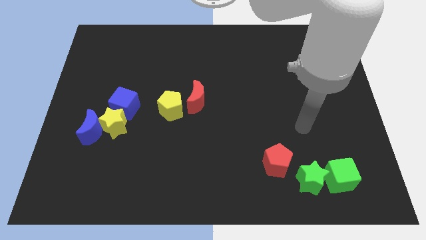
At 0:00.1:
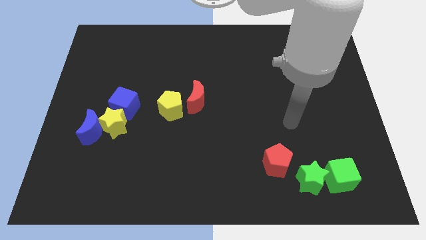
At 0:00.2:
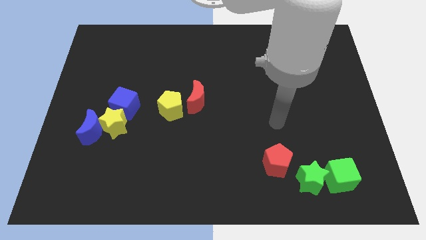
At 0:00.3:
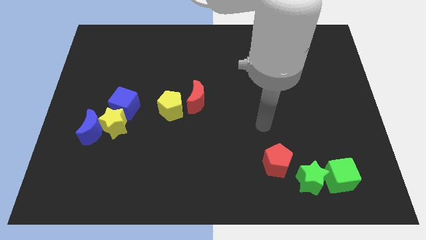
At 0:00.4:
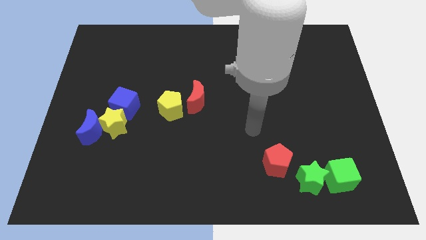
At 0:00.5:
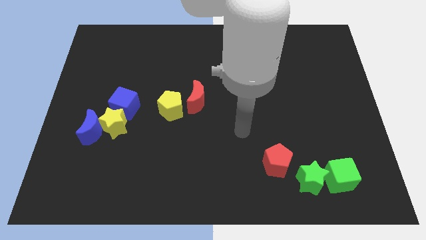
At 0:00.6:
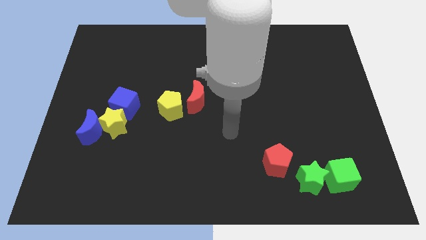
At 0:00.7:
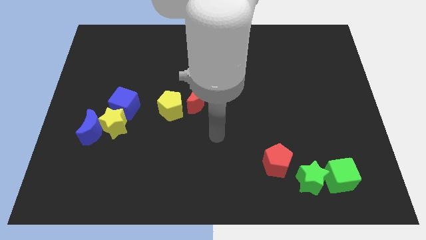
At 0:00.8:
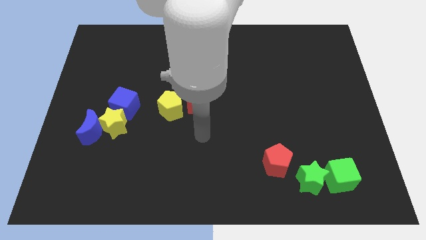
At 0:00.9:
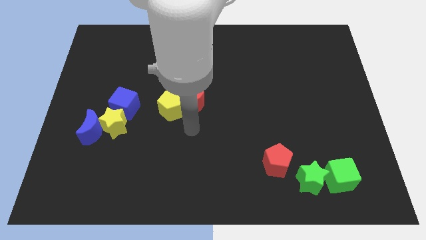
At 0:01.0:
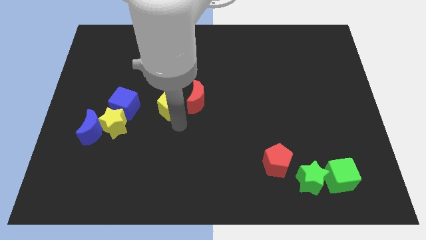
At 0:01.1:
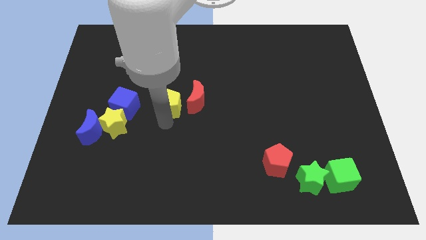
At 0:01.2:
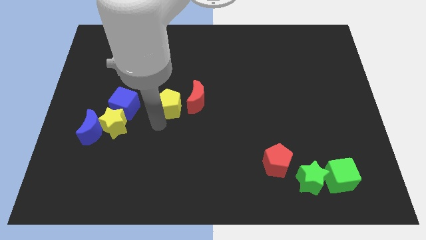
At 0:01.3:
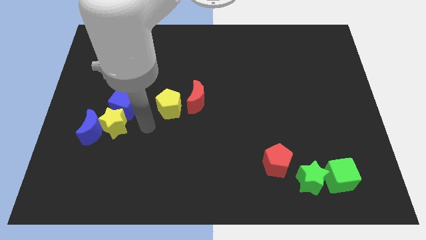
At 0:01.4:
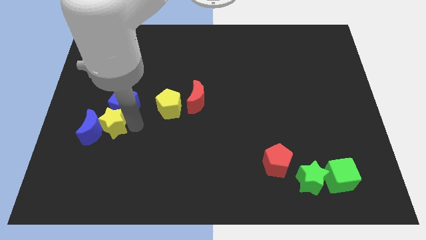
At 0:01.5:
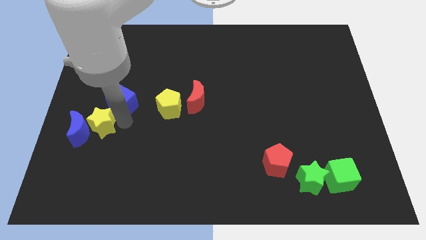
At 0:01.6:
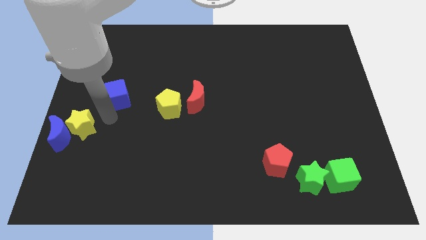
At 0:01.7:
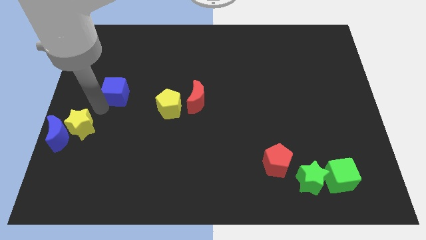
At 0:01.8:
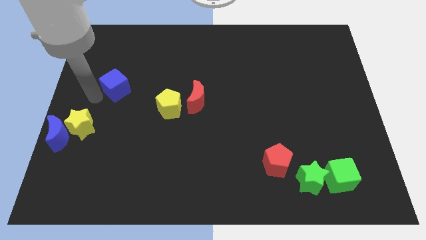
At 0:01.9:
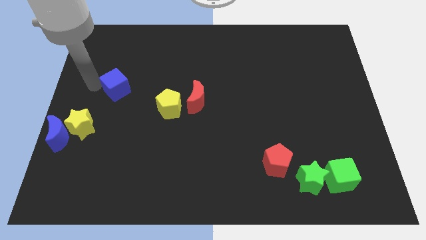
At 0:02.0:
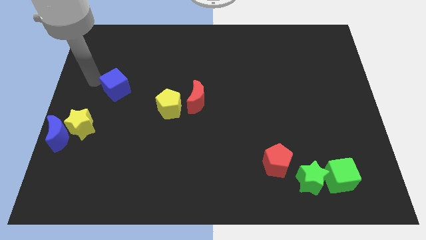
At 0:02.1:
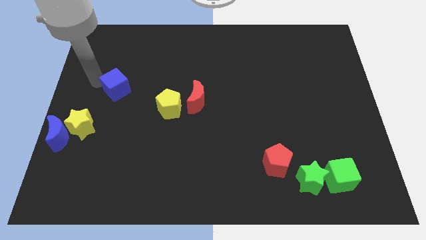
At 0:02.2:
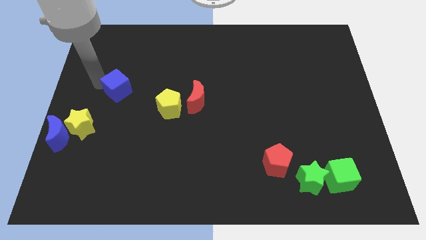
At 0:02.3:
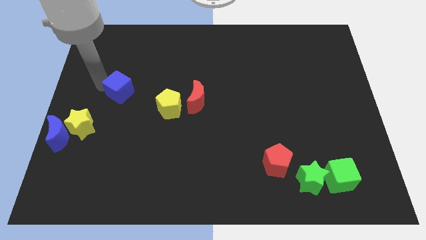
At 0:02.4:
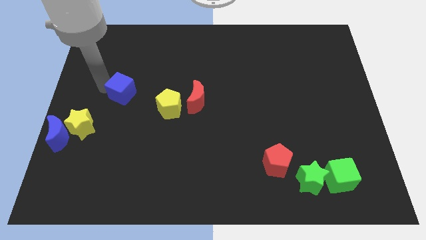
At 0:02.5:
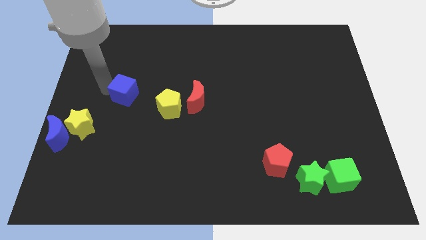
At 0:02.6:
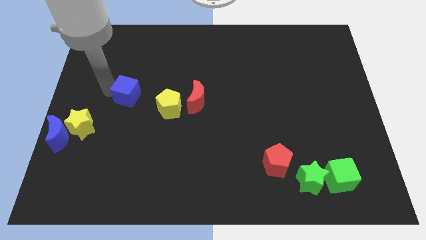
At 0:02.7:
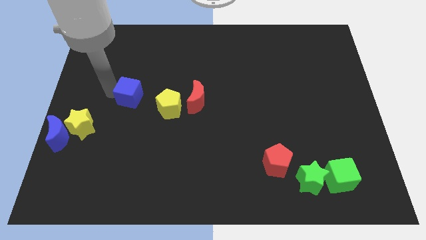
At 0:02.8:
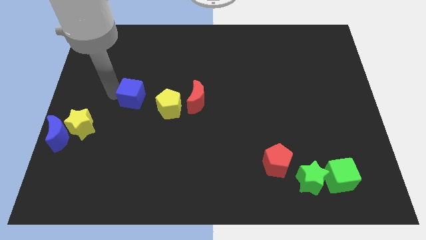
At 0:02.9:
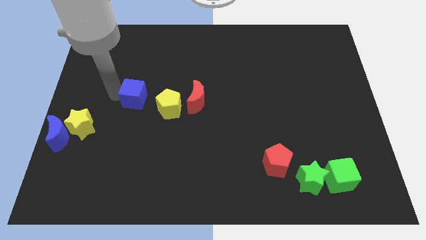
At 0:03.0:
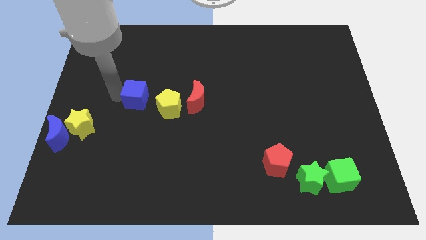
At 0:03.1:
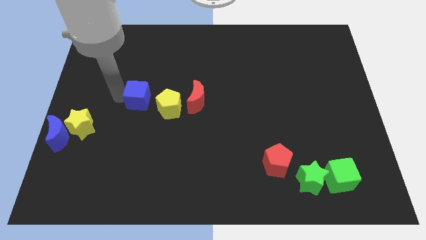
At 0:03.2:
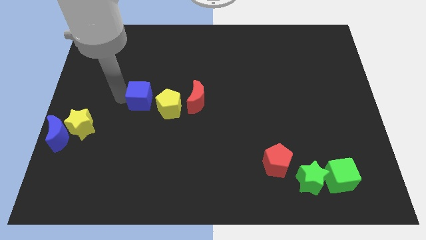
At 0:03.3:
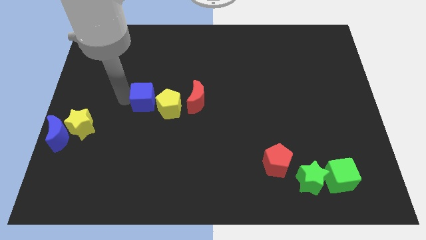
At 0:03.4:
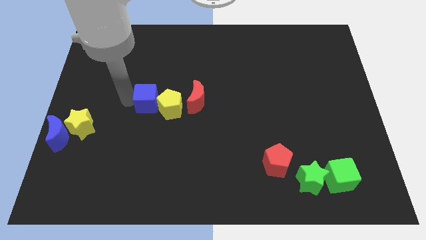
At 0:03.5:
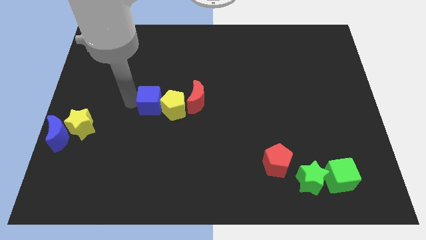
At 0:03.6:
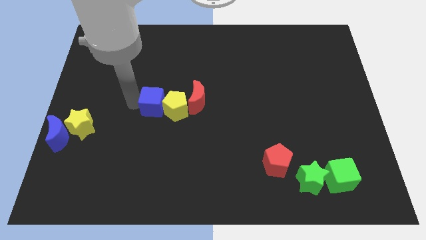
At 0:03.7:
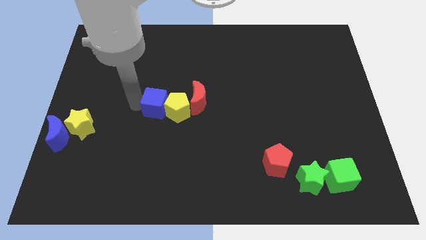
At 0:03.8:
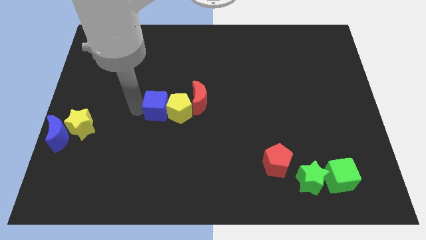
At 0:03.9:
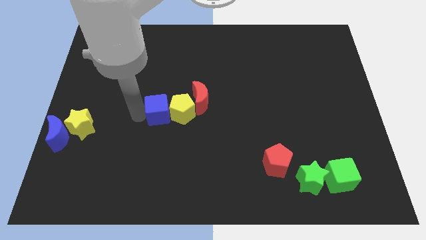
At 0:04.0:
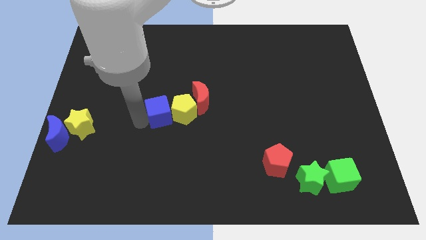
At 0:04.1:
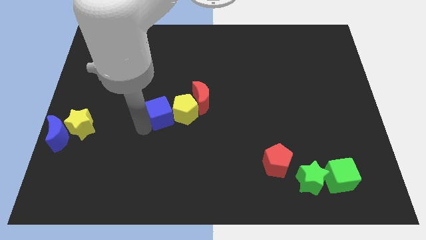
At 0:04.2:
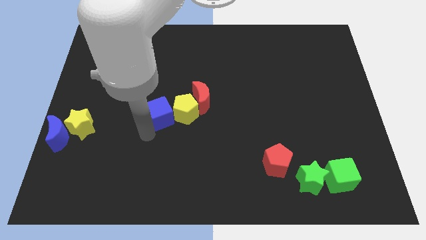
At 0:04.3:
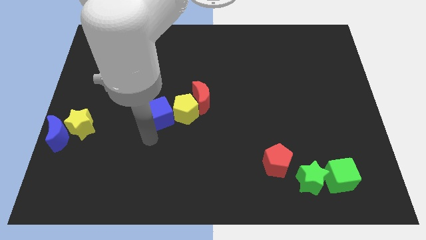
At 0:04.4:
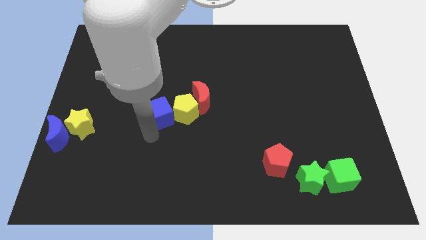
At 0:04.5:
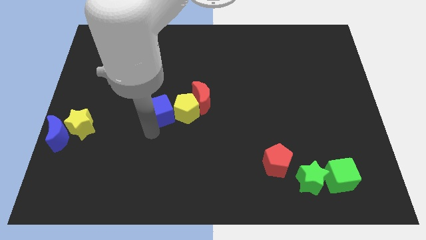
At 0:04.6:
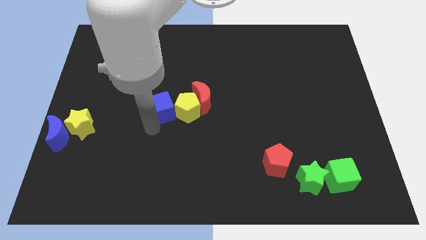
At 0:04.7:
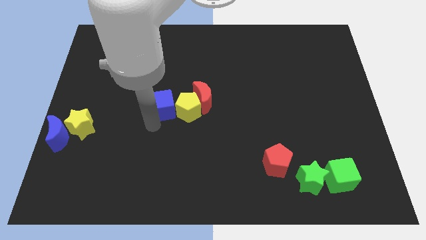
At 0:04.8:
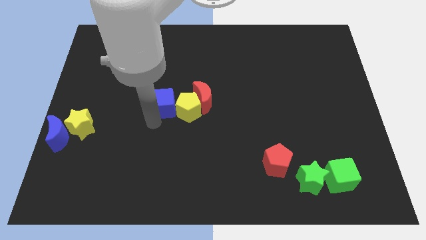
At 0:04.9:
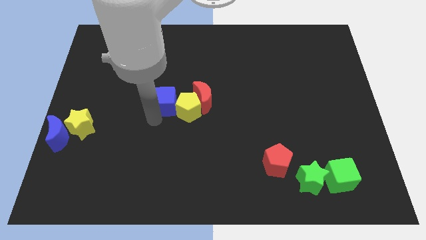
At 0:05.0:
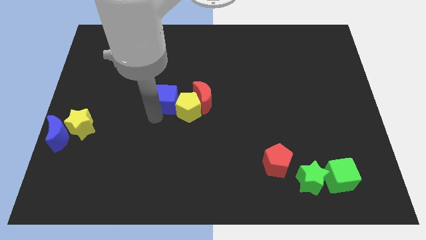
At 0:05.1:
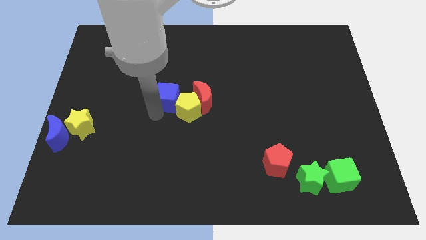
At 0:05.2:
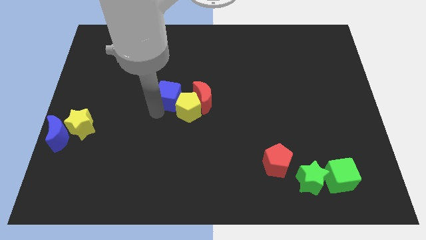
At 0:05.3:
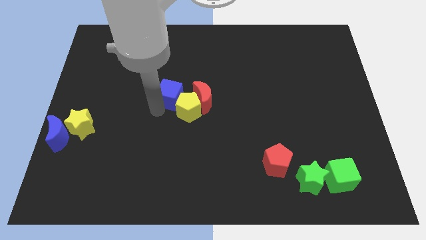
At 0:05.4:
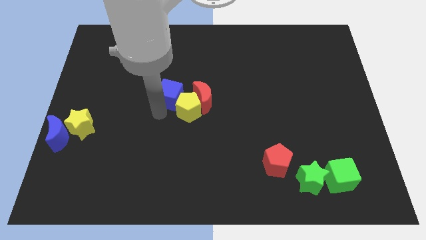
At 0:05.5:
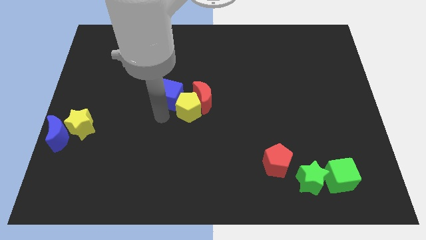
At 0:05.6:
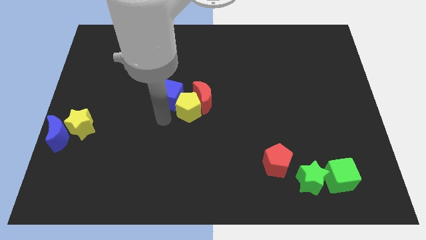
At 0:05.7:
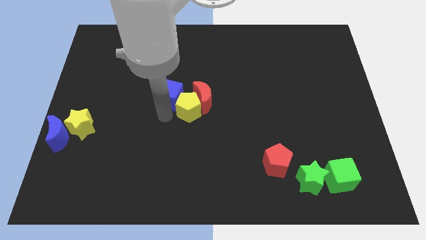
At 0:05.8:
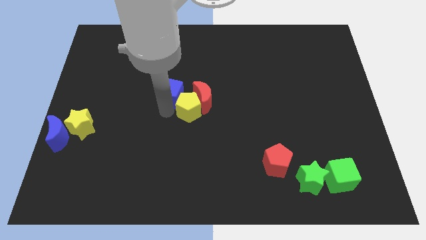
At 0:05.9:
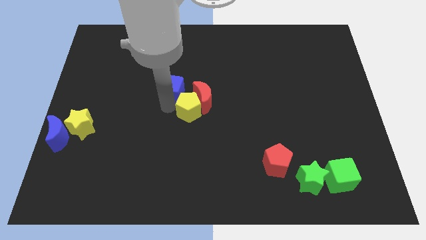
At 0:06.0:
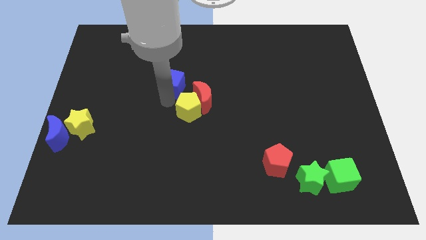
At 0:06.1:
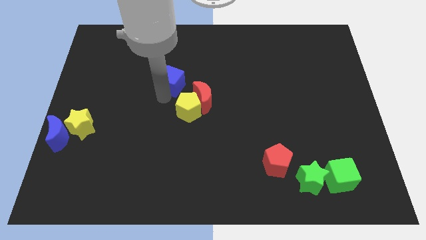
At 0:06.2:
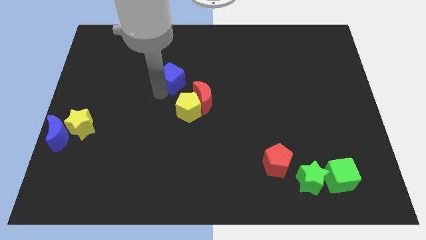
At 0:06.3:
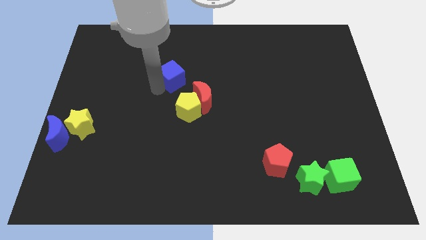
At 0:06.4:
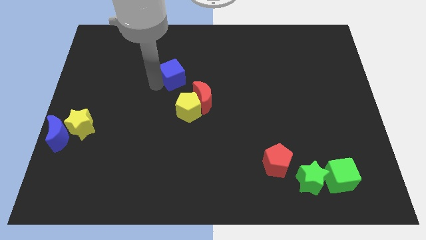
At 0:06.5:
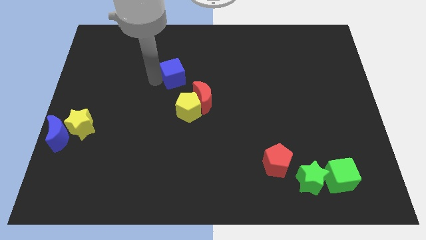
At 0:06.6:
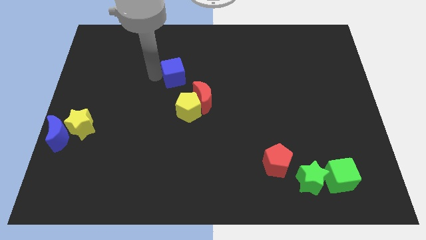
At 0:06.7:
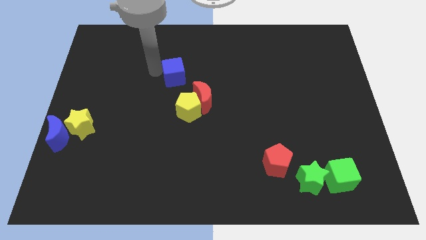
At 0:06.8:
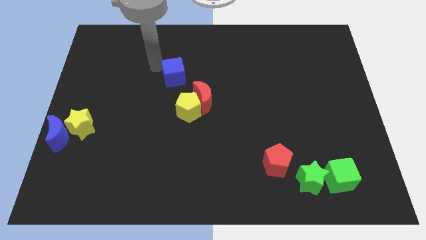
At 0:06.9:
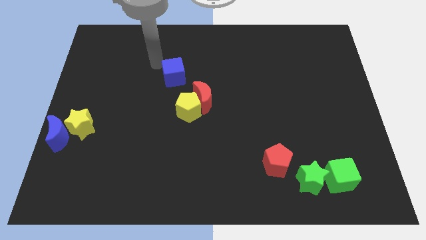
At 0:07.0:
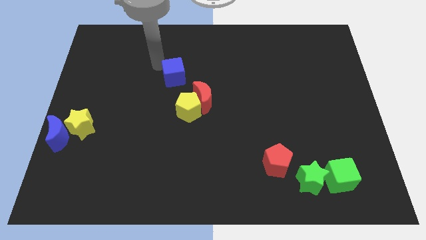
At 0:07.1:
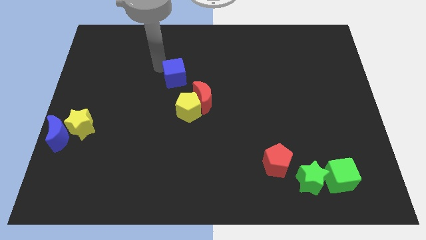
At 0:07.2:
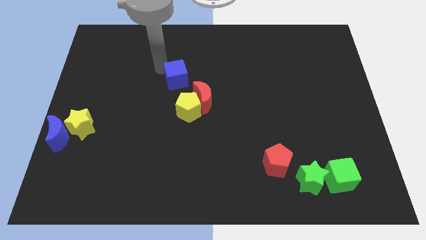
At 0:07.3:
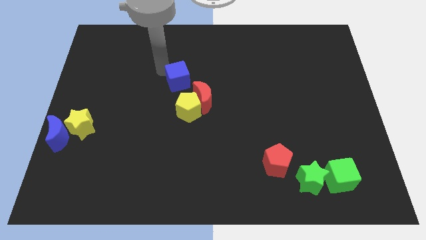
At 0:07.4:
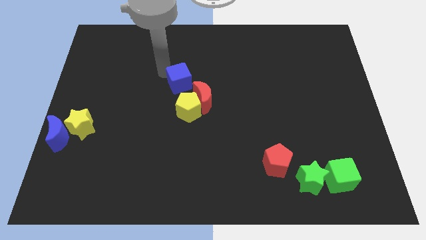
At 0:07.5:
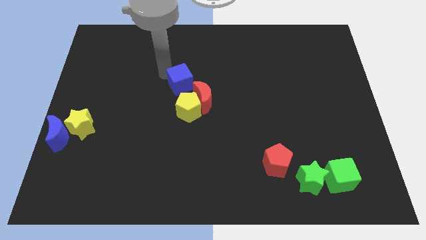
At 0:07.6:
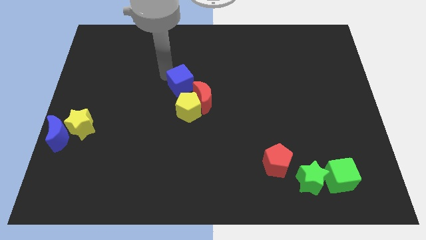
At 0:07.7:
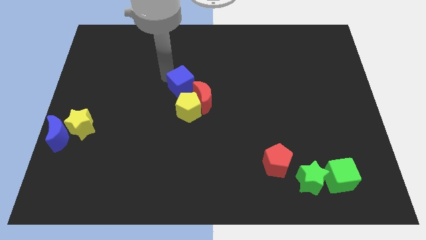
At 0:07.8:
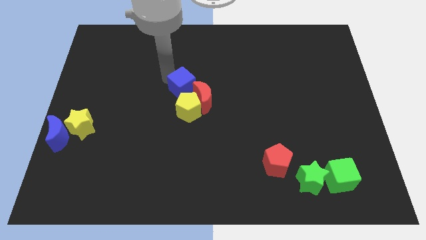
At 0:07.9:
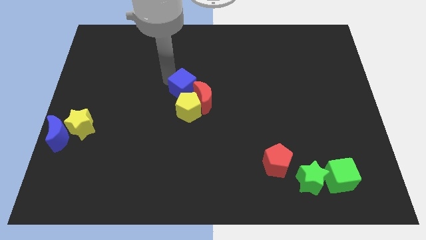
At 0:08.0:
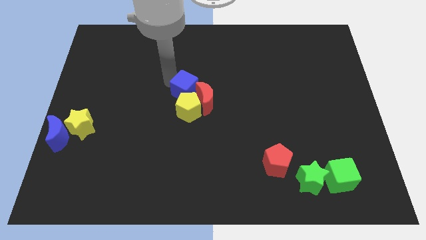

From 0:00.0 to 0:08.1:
push the blue cube close to the red moon
